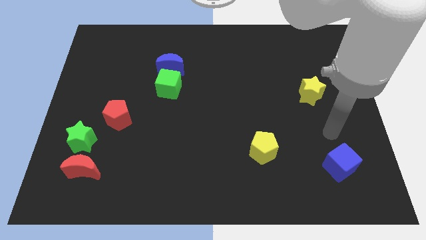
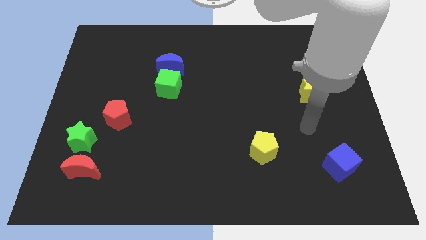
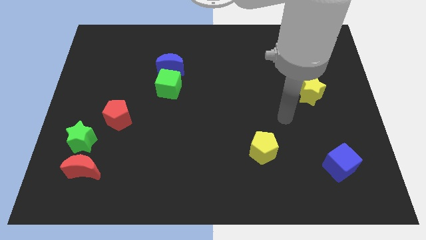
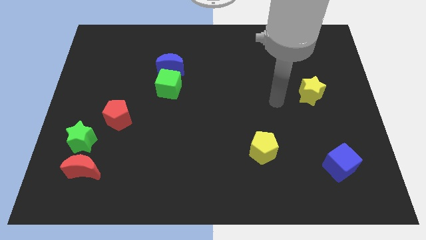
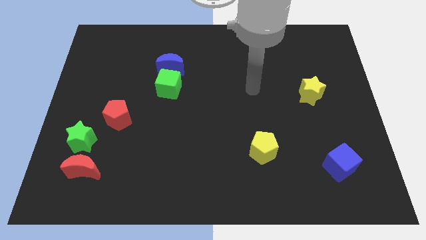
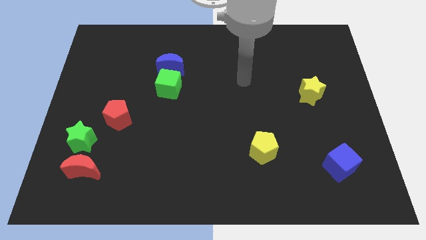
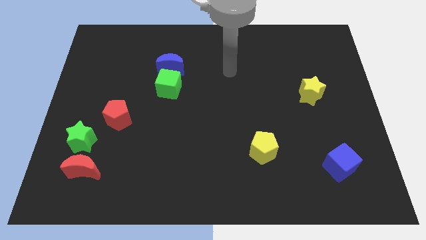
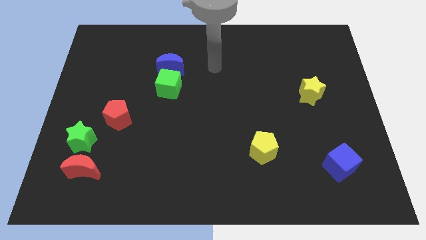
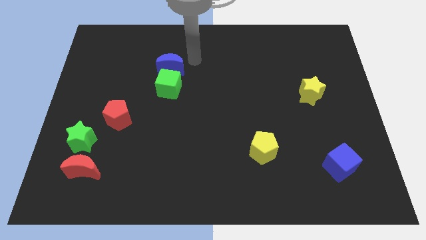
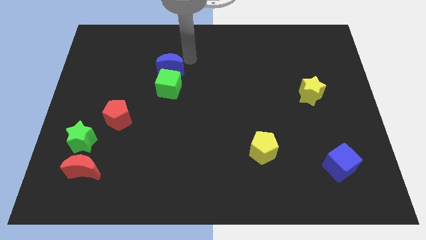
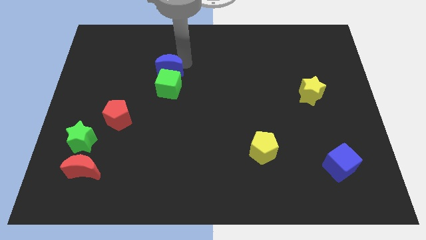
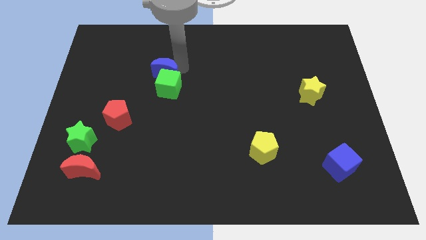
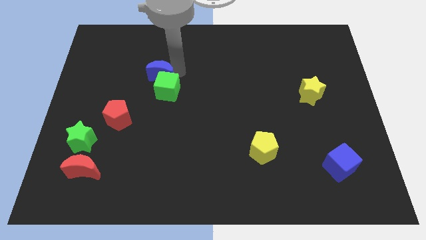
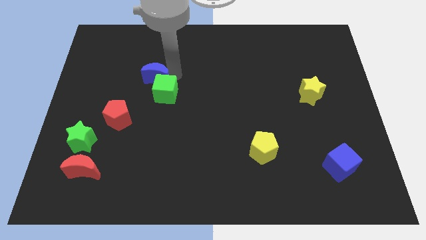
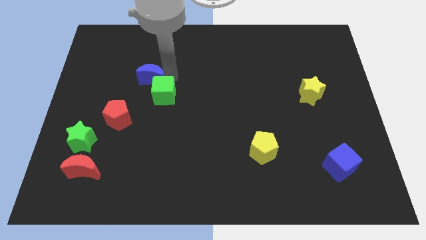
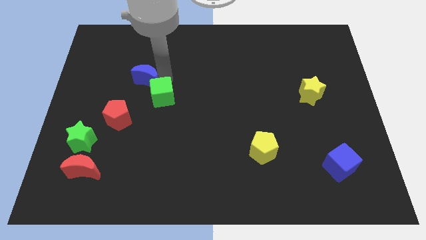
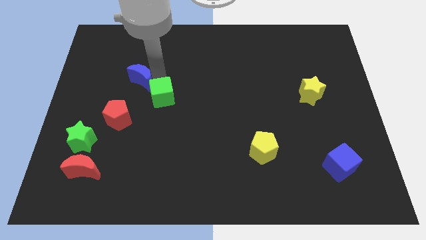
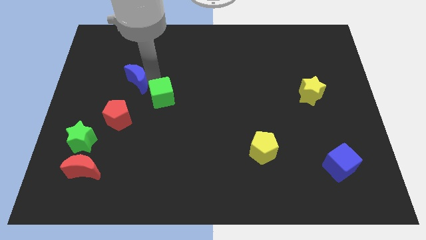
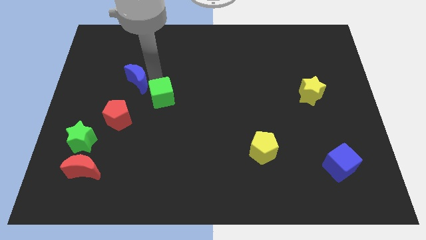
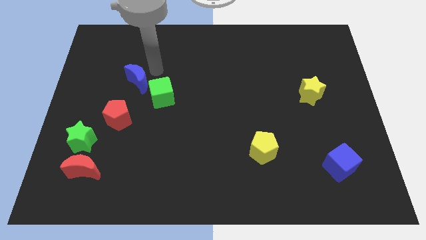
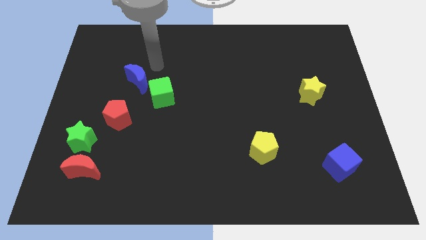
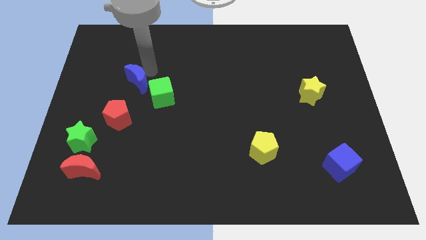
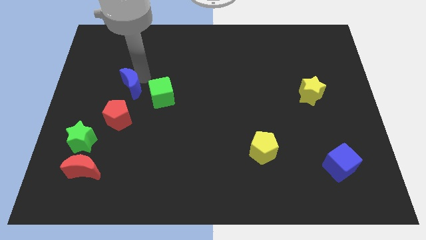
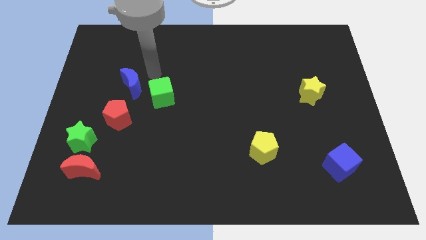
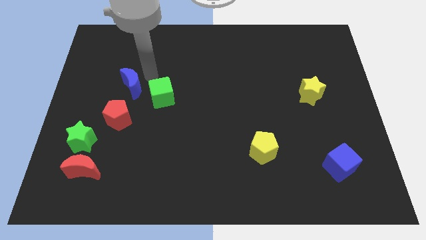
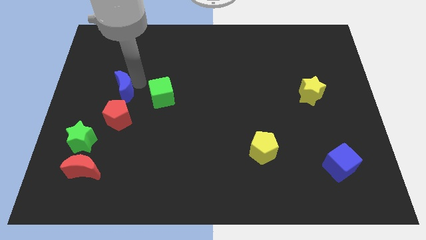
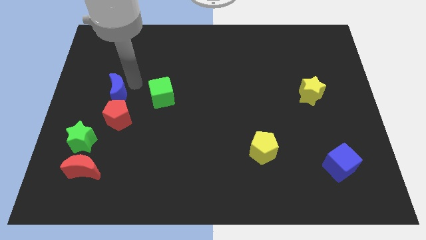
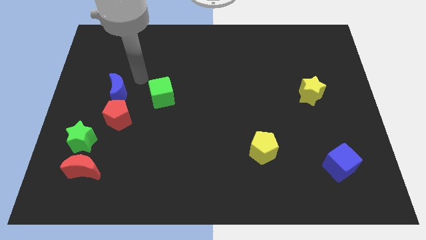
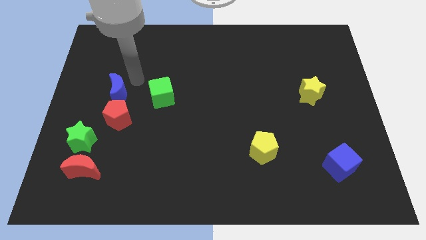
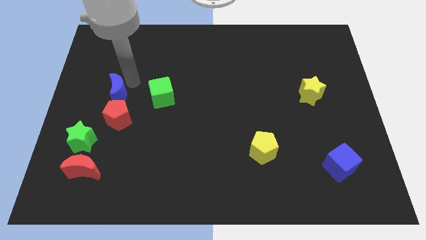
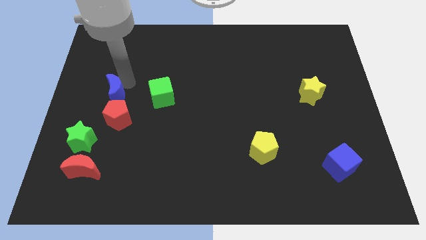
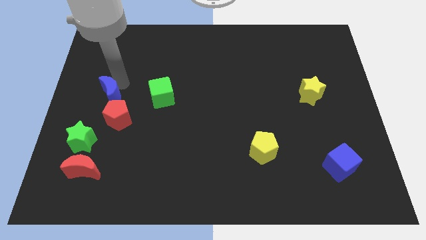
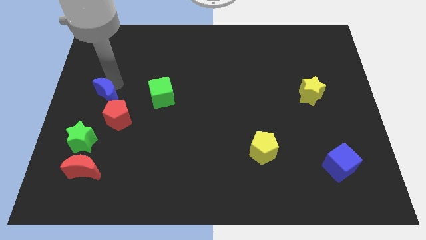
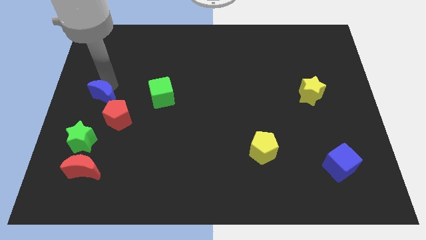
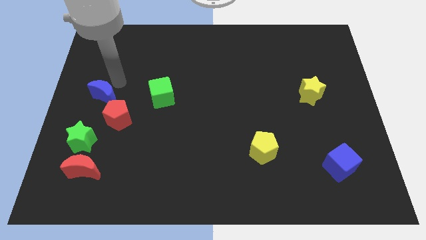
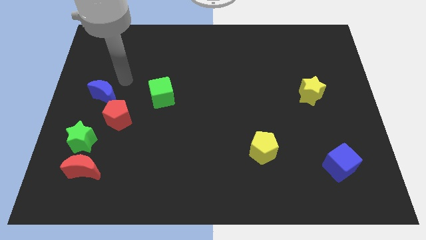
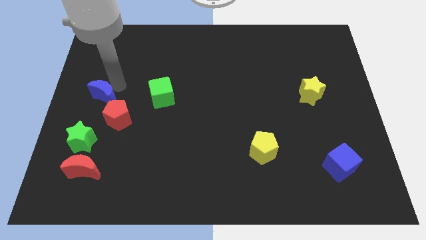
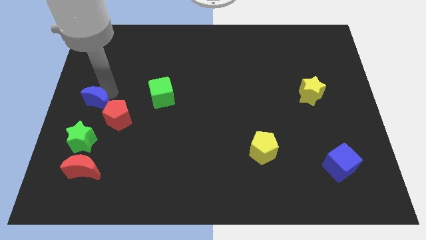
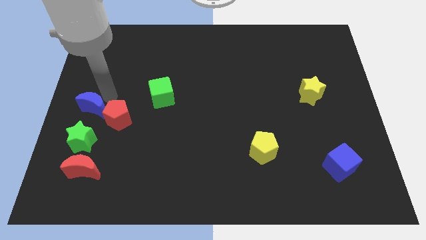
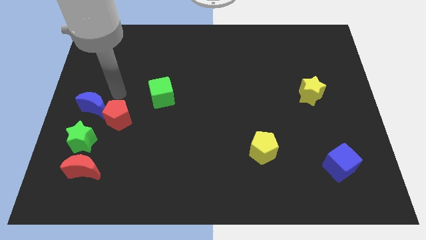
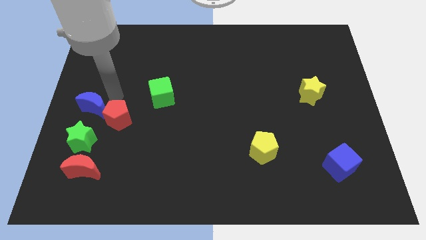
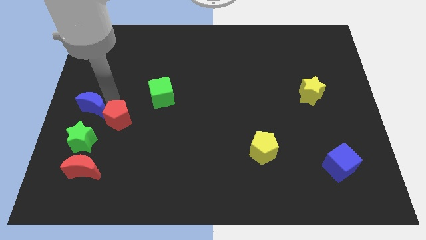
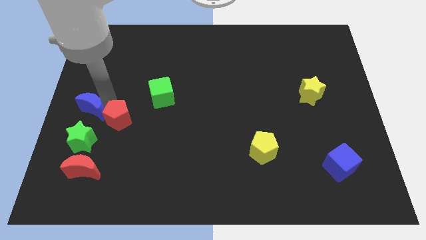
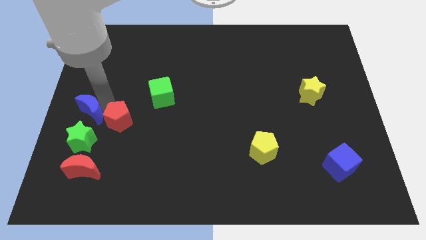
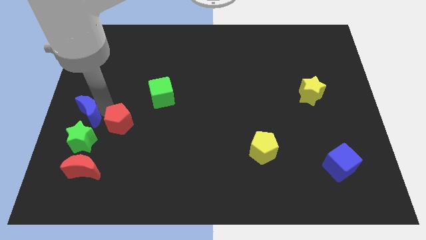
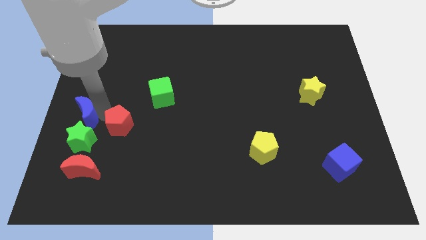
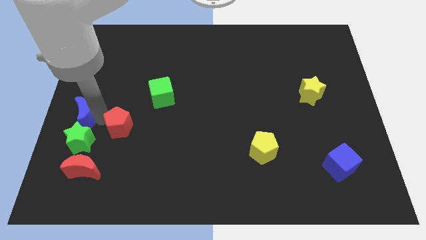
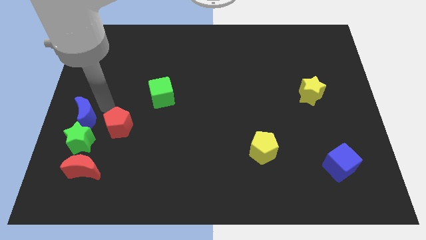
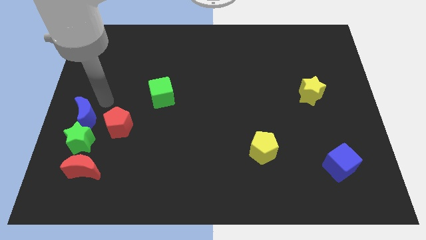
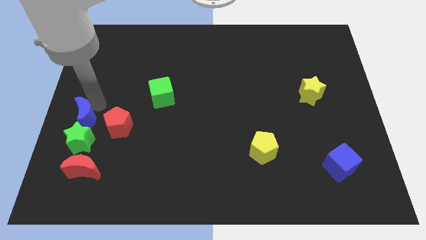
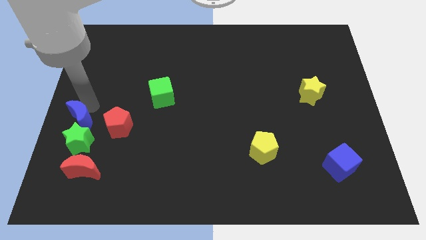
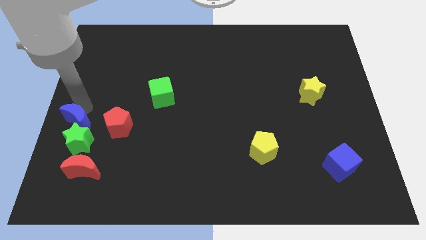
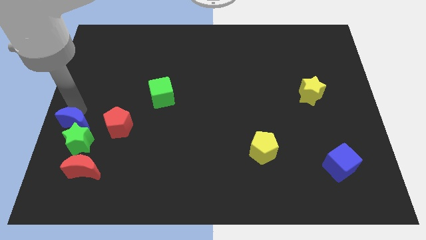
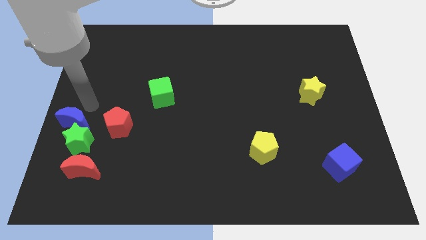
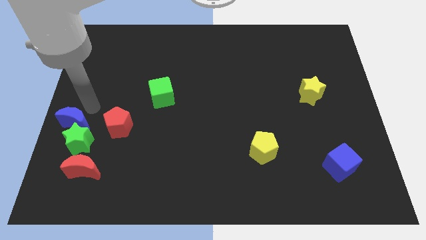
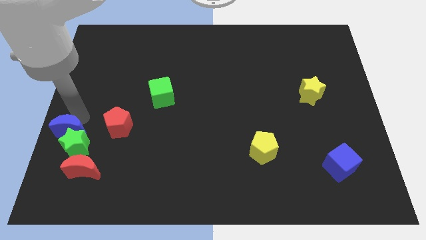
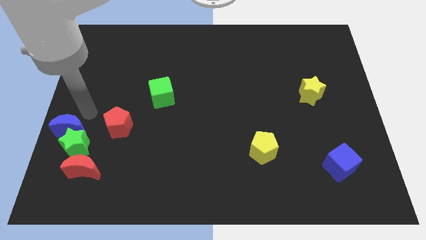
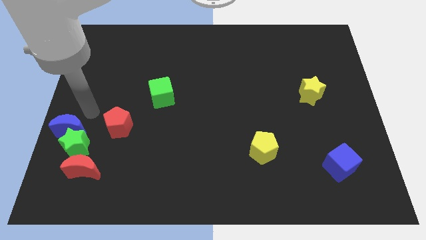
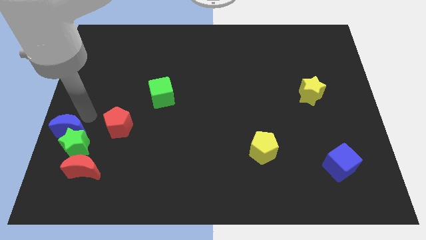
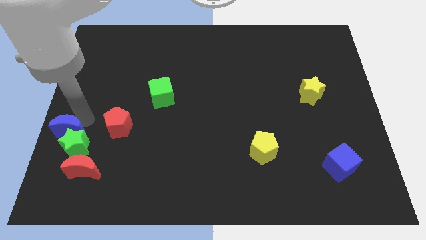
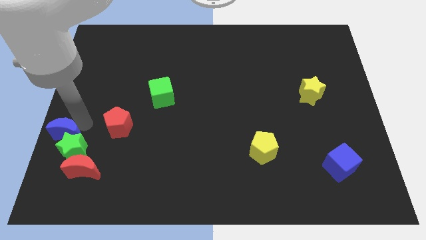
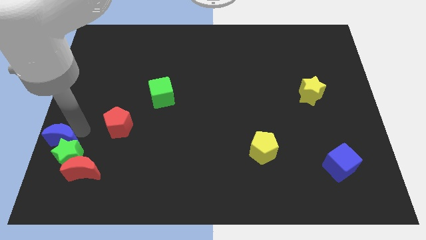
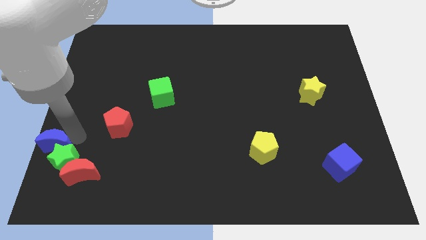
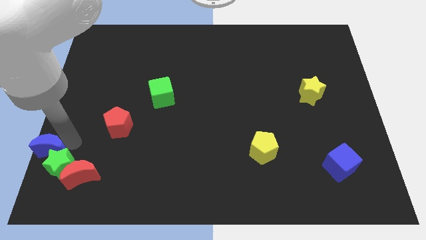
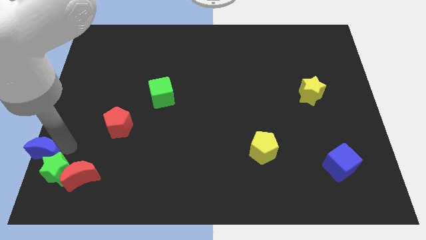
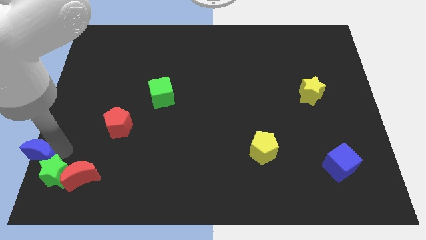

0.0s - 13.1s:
put the blue moon to the lower left corner
